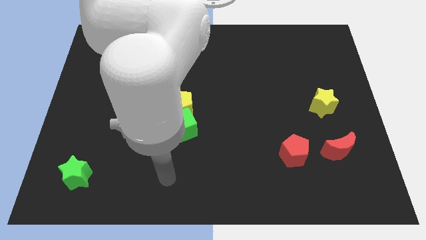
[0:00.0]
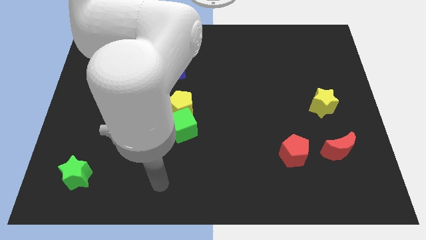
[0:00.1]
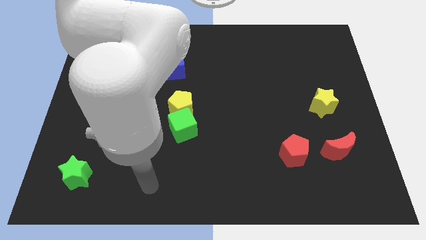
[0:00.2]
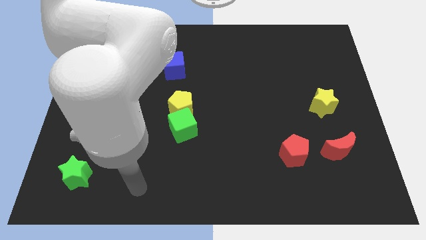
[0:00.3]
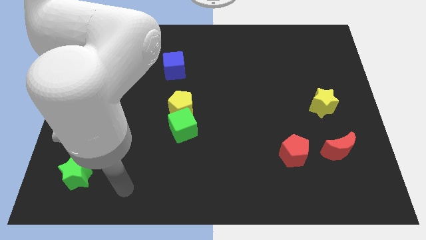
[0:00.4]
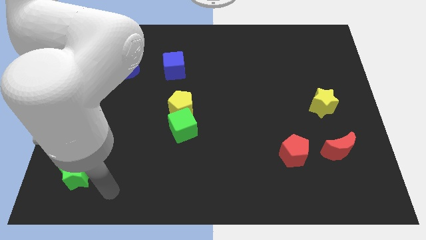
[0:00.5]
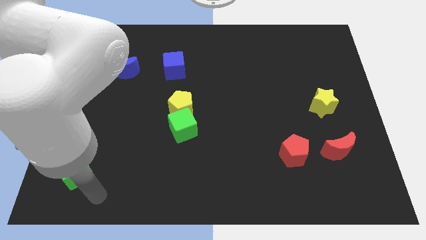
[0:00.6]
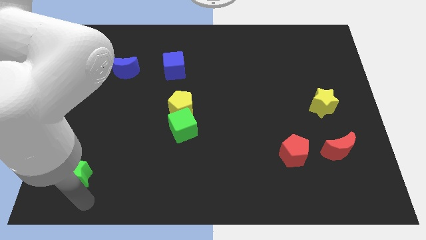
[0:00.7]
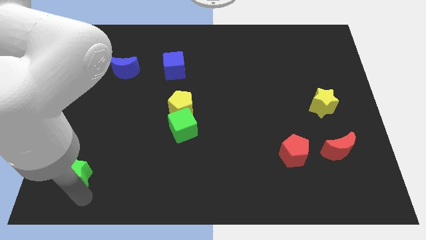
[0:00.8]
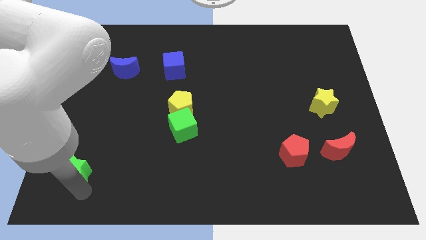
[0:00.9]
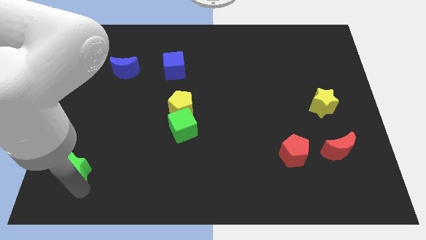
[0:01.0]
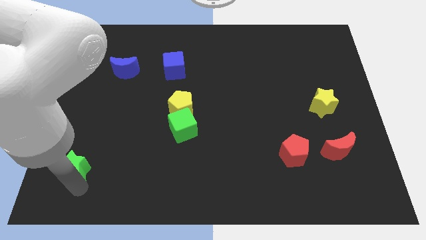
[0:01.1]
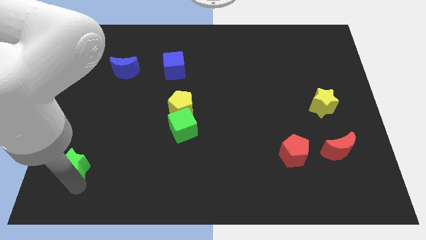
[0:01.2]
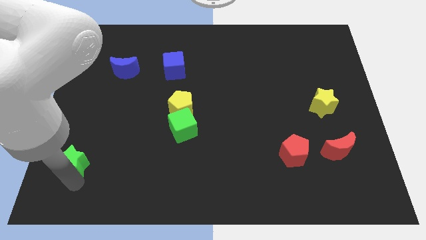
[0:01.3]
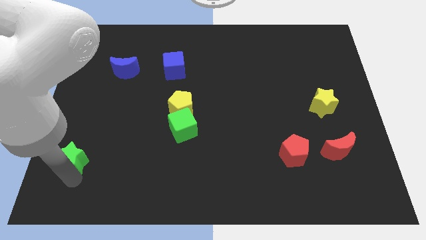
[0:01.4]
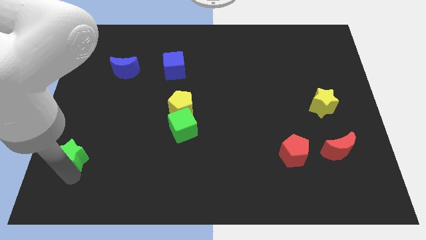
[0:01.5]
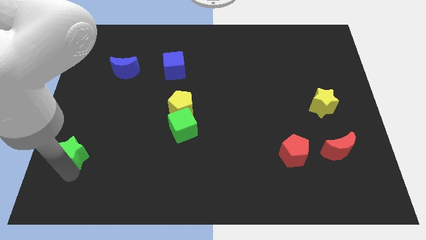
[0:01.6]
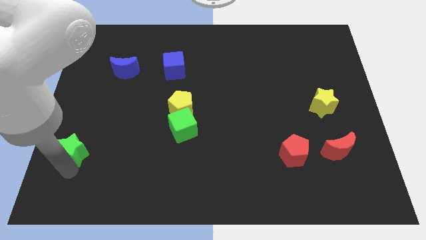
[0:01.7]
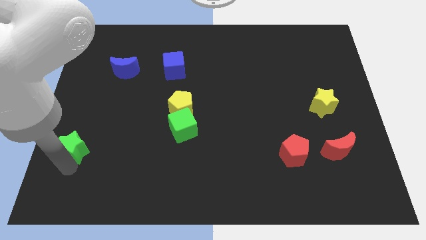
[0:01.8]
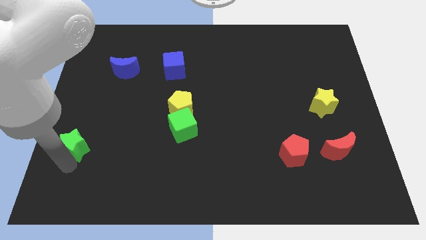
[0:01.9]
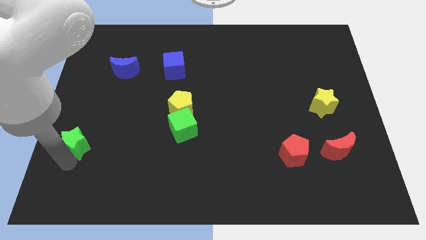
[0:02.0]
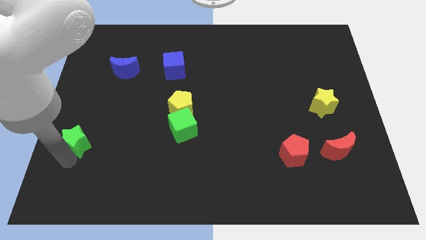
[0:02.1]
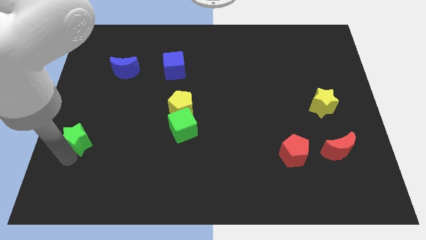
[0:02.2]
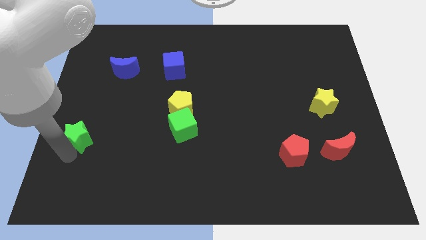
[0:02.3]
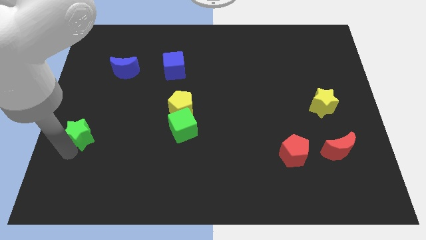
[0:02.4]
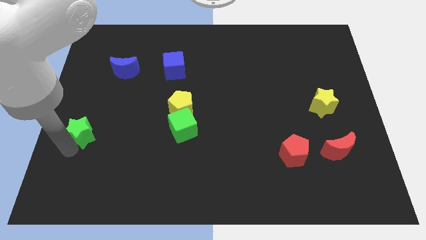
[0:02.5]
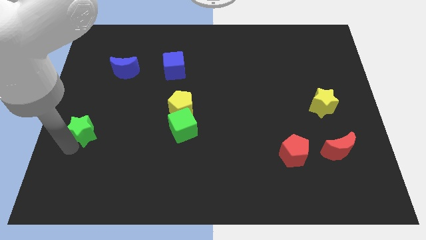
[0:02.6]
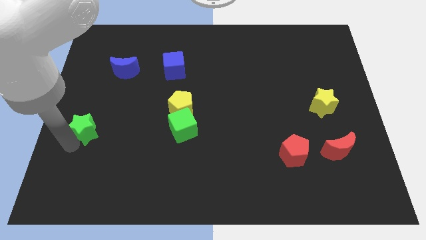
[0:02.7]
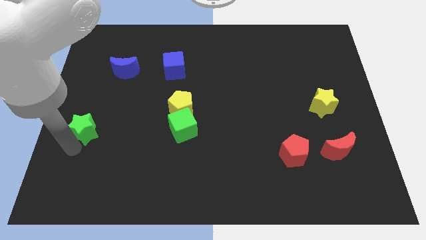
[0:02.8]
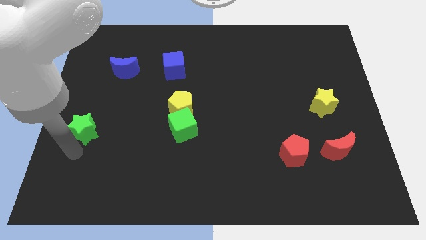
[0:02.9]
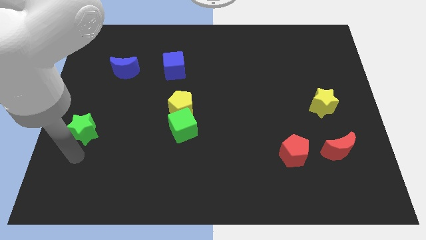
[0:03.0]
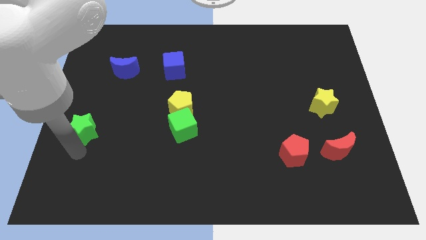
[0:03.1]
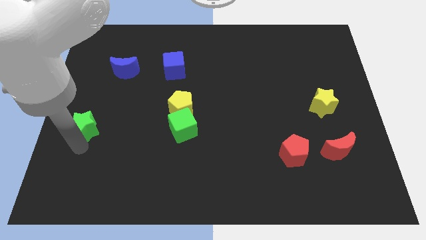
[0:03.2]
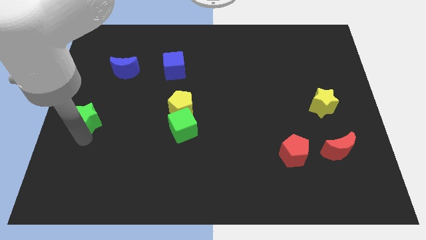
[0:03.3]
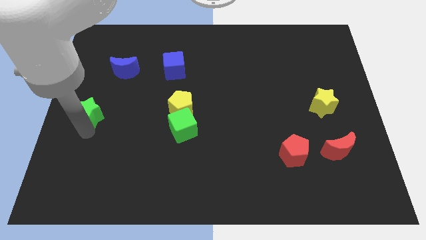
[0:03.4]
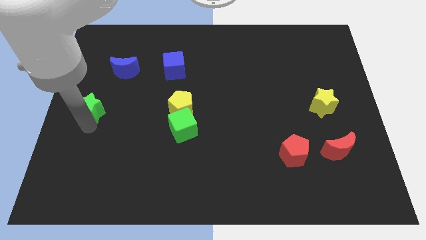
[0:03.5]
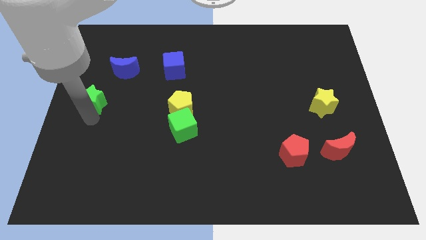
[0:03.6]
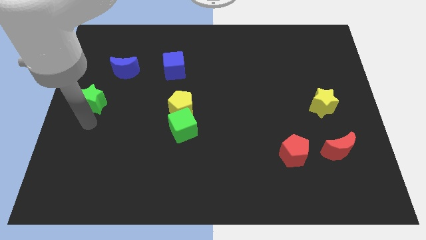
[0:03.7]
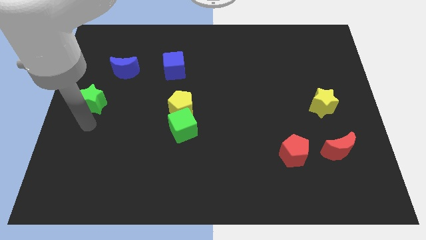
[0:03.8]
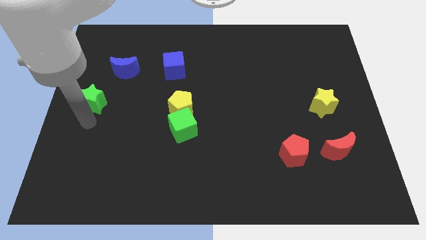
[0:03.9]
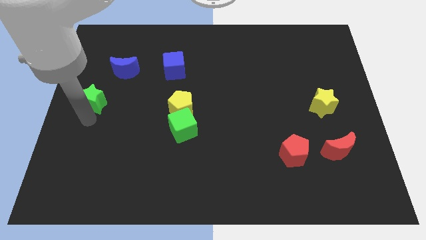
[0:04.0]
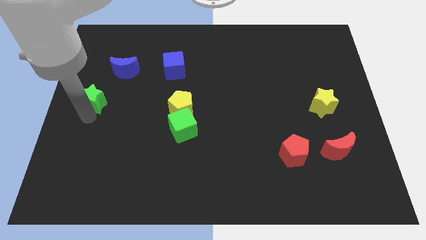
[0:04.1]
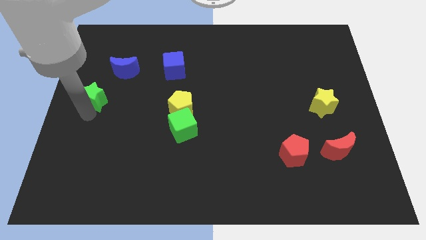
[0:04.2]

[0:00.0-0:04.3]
move the green star upwards

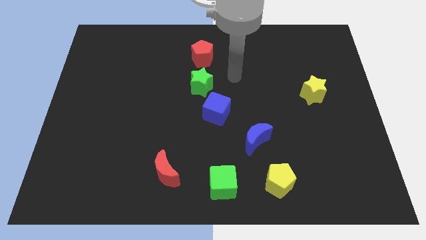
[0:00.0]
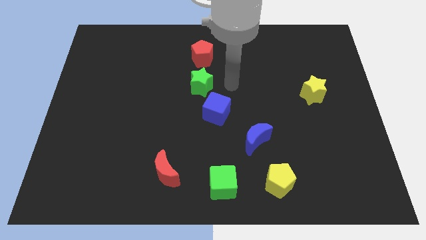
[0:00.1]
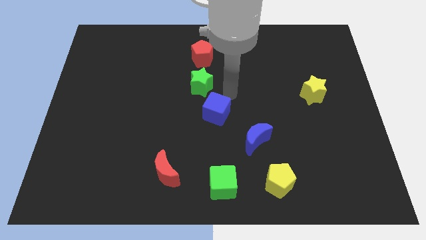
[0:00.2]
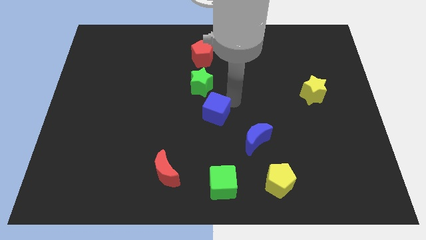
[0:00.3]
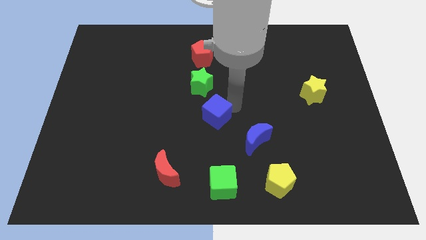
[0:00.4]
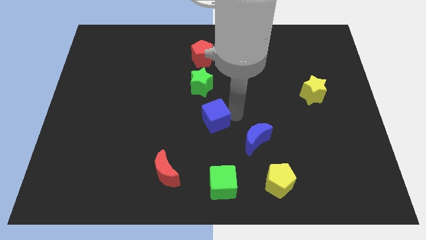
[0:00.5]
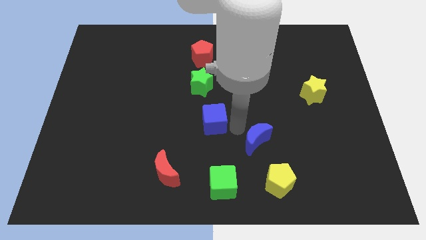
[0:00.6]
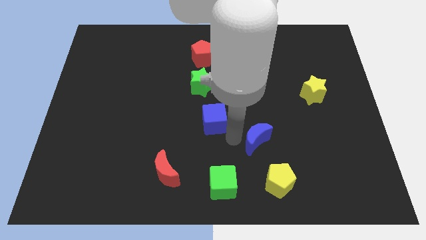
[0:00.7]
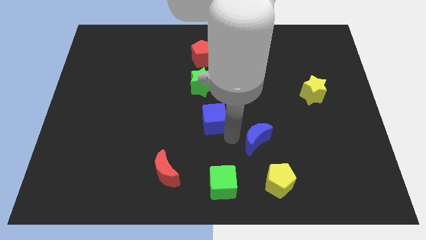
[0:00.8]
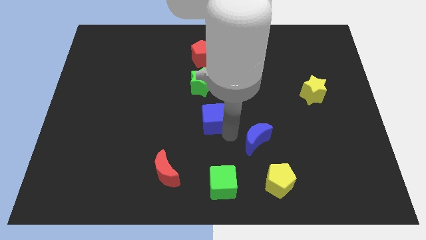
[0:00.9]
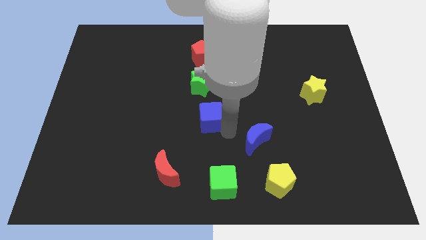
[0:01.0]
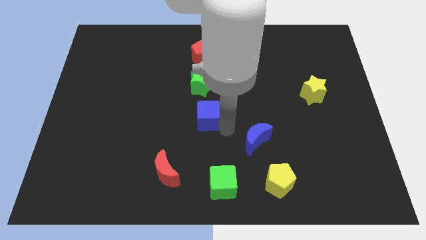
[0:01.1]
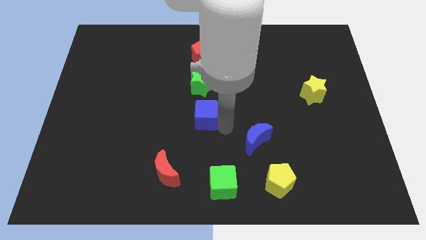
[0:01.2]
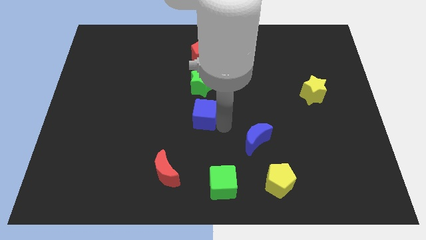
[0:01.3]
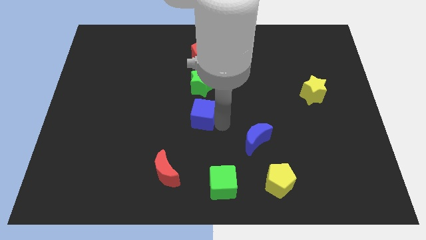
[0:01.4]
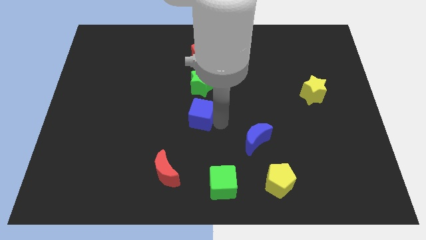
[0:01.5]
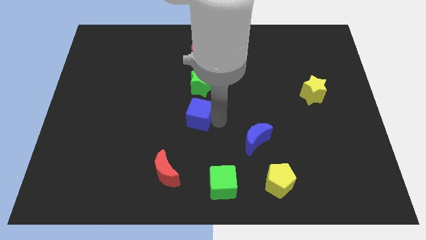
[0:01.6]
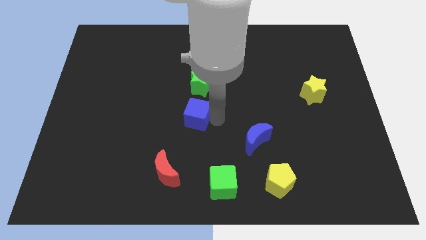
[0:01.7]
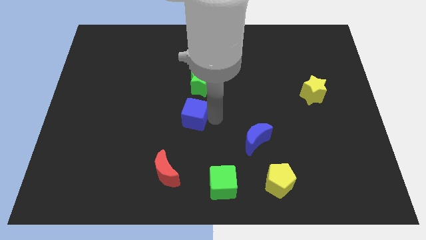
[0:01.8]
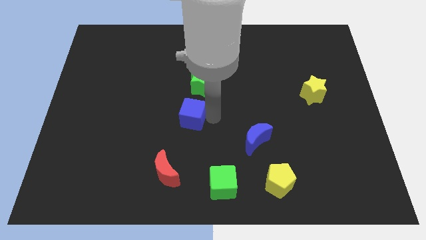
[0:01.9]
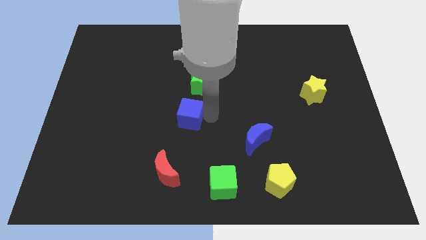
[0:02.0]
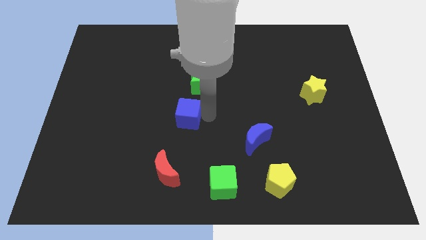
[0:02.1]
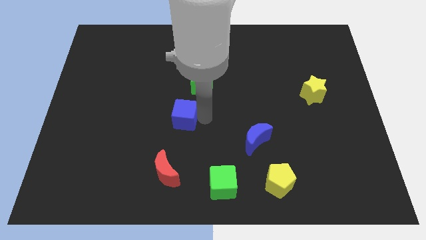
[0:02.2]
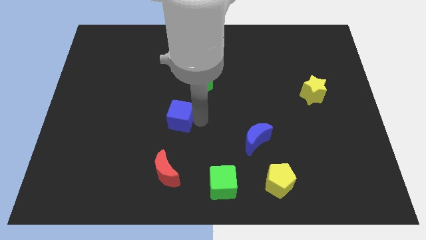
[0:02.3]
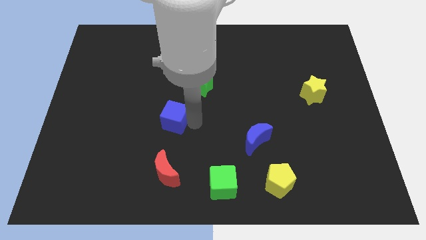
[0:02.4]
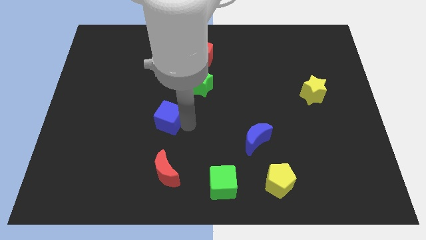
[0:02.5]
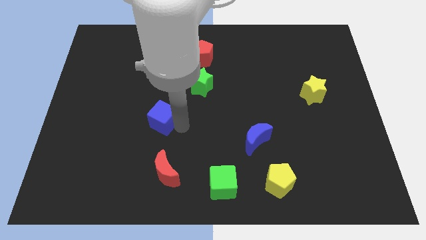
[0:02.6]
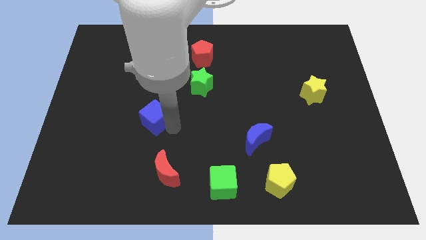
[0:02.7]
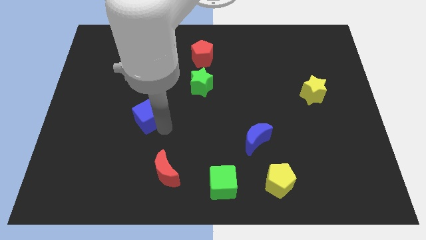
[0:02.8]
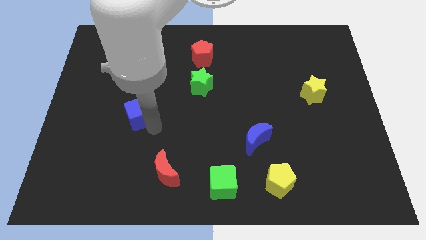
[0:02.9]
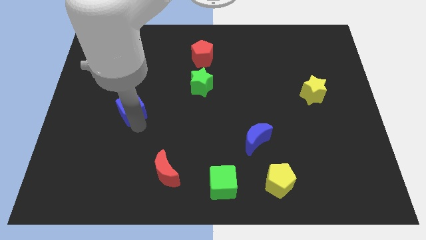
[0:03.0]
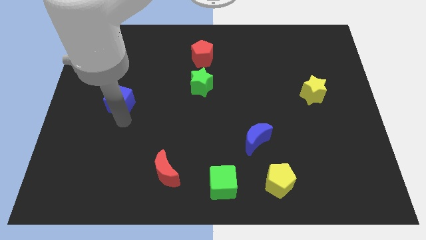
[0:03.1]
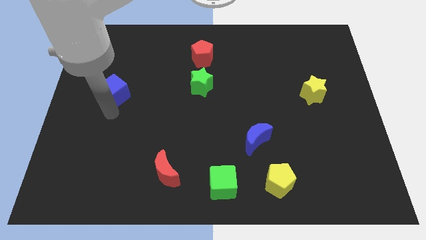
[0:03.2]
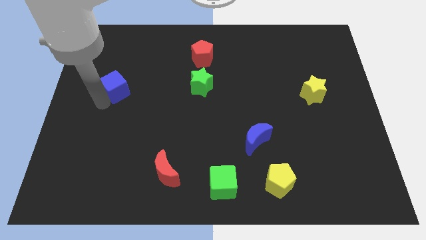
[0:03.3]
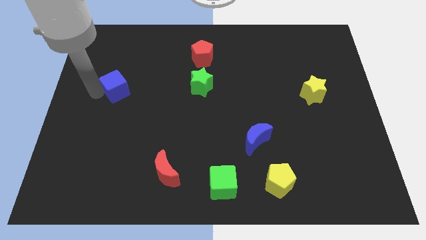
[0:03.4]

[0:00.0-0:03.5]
slide the blue cube a little up and left
